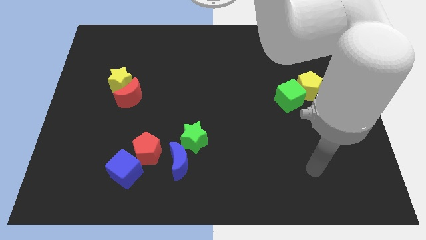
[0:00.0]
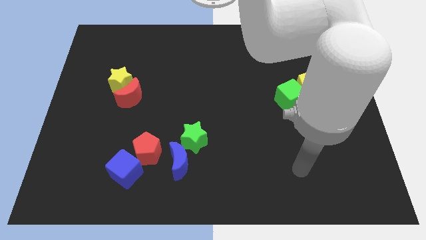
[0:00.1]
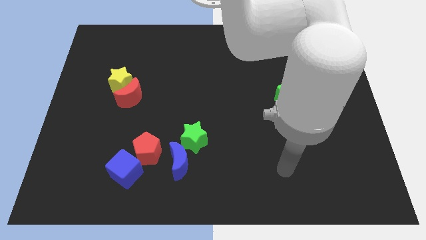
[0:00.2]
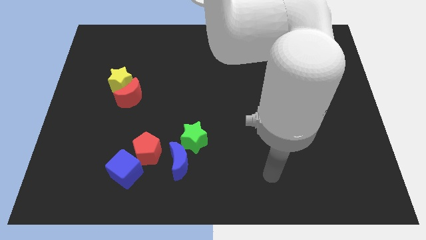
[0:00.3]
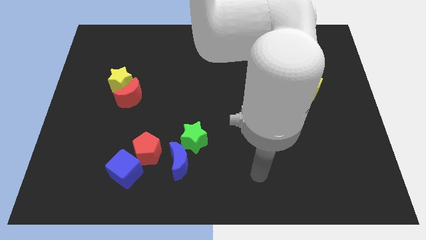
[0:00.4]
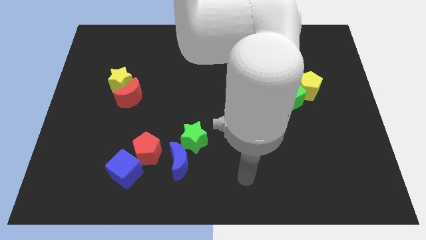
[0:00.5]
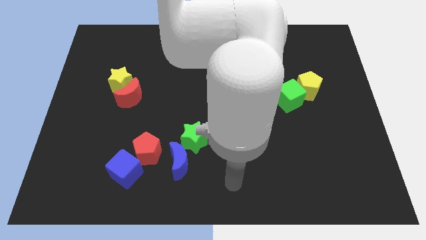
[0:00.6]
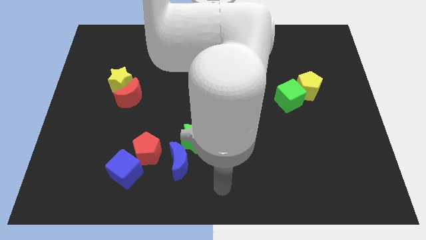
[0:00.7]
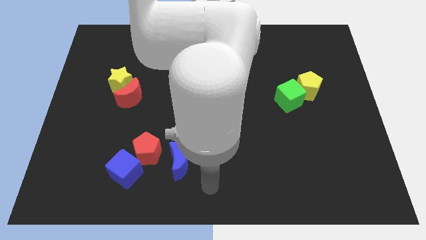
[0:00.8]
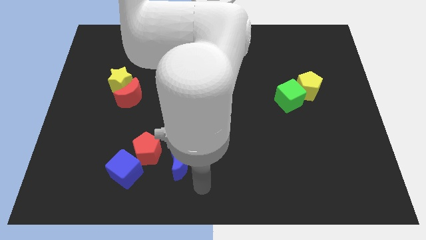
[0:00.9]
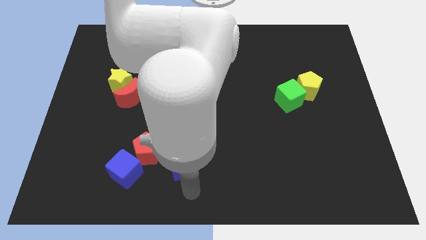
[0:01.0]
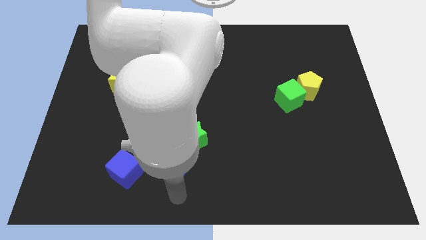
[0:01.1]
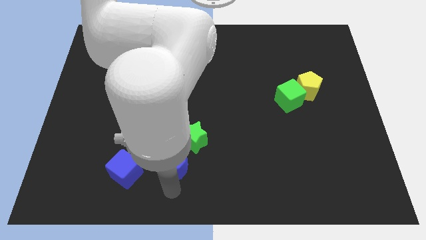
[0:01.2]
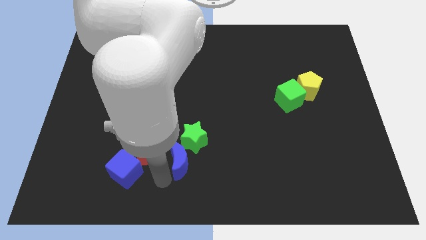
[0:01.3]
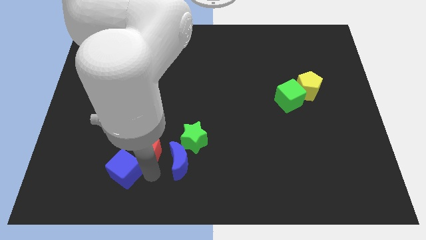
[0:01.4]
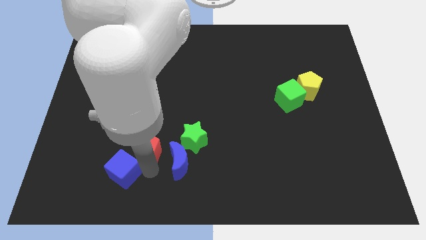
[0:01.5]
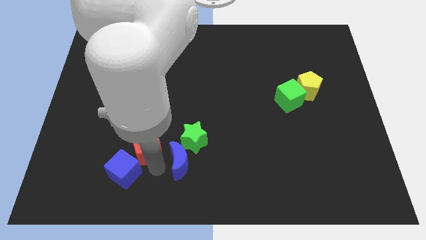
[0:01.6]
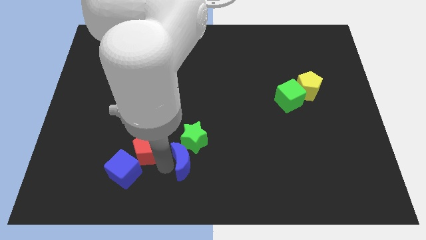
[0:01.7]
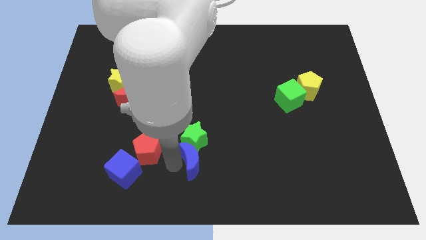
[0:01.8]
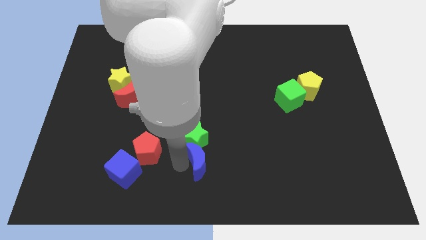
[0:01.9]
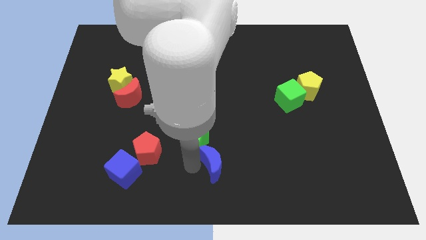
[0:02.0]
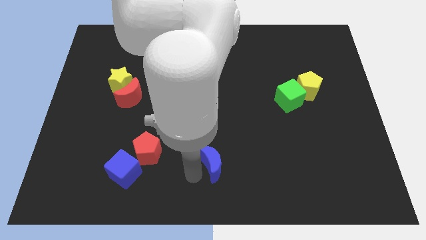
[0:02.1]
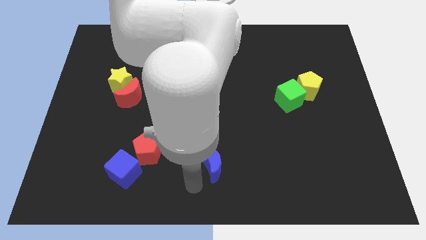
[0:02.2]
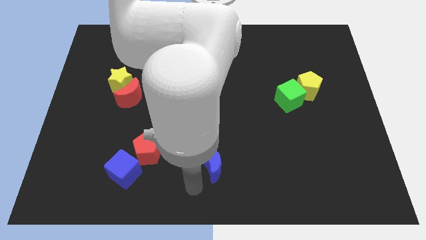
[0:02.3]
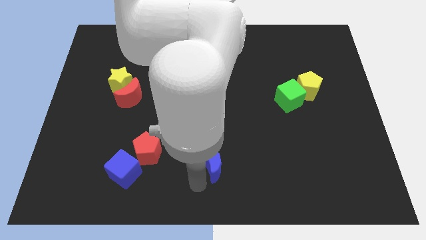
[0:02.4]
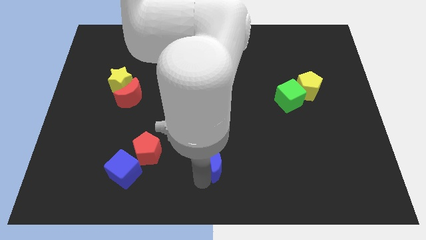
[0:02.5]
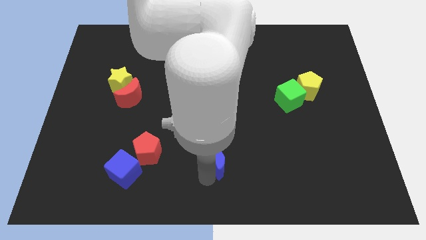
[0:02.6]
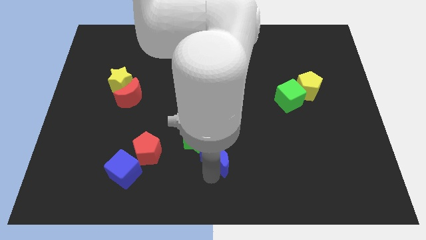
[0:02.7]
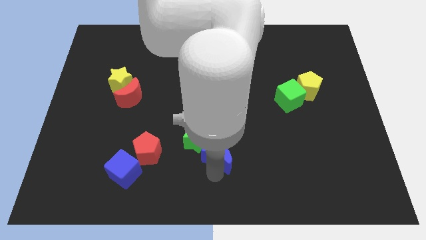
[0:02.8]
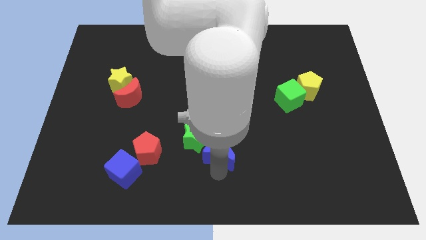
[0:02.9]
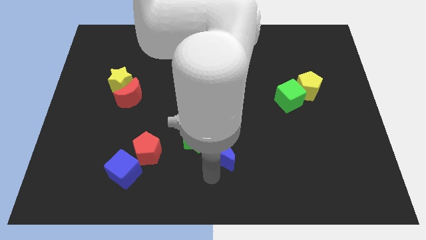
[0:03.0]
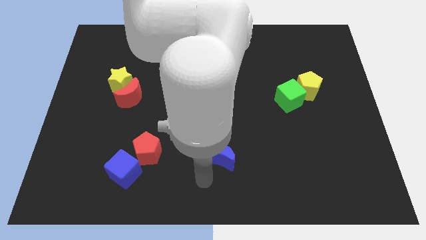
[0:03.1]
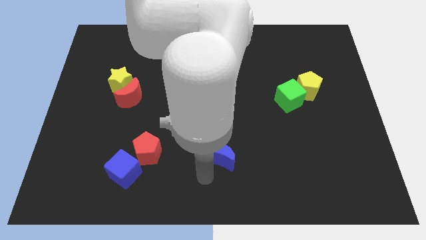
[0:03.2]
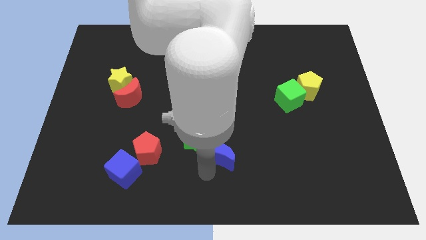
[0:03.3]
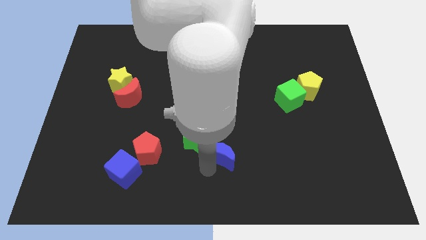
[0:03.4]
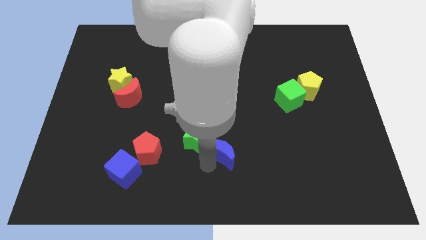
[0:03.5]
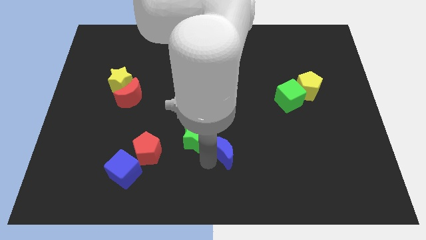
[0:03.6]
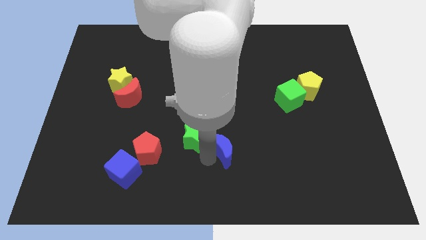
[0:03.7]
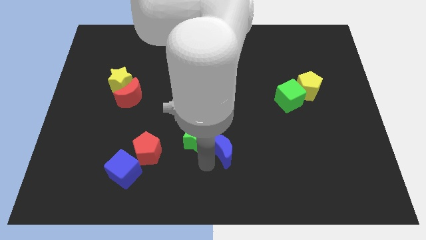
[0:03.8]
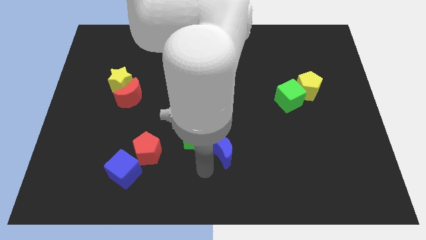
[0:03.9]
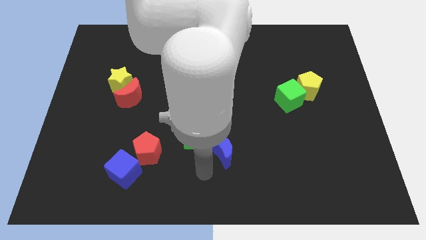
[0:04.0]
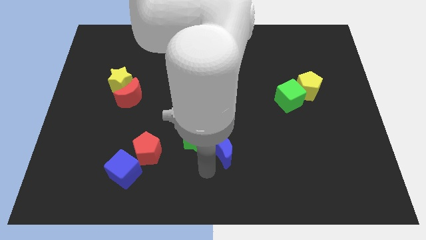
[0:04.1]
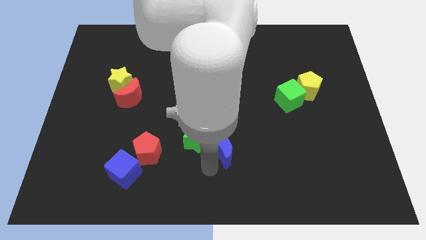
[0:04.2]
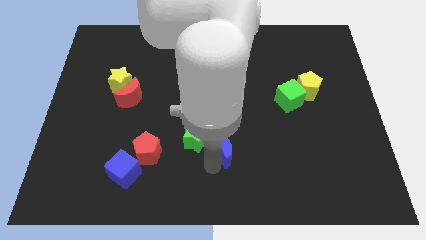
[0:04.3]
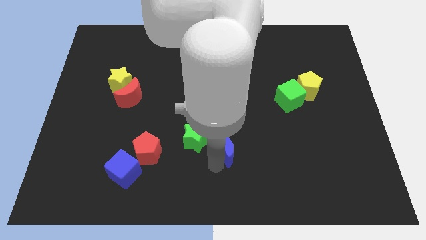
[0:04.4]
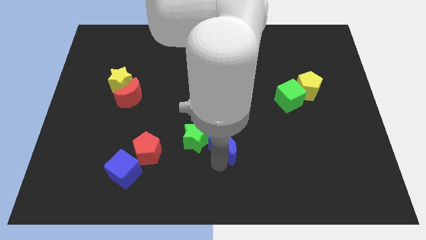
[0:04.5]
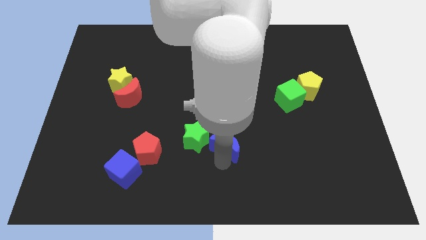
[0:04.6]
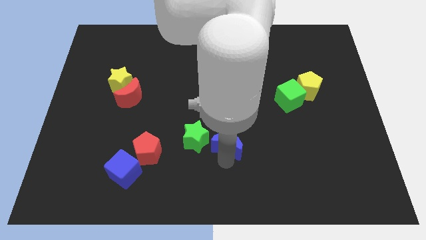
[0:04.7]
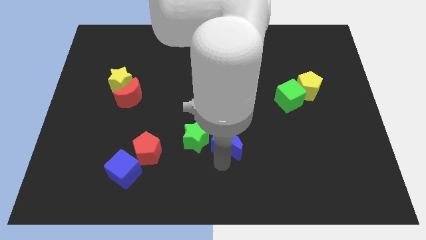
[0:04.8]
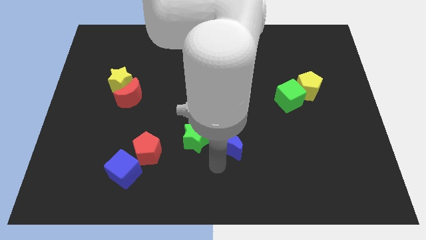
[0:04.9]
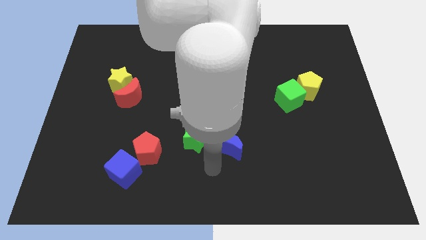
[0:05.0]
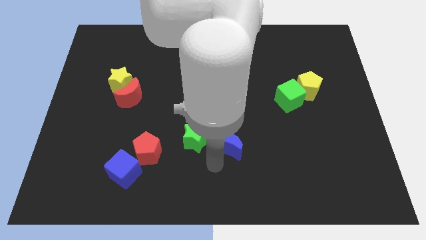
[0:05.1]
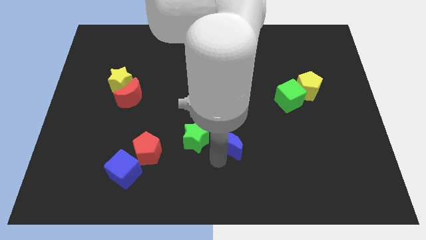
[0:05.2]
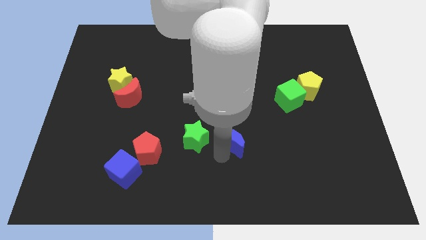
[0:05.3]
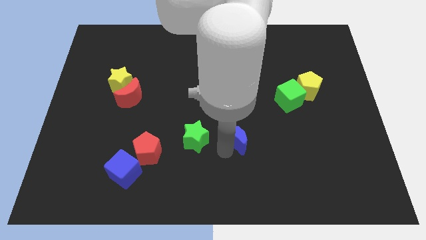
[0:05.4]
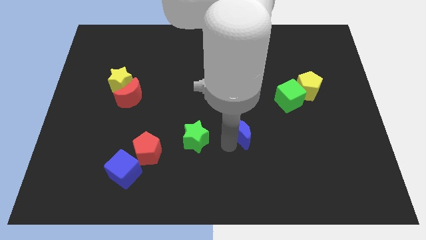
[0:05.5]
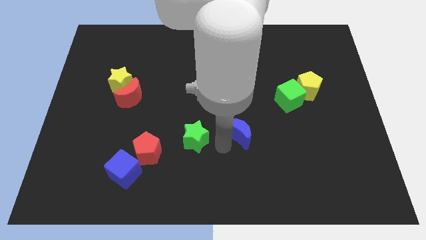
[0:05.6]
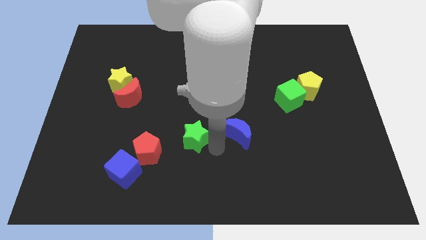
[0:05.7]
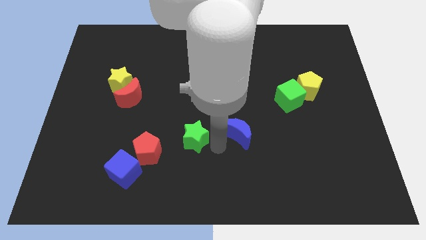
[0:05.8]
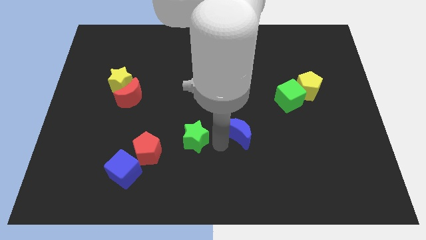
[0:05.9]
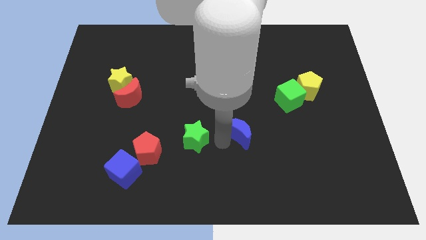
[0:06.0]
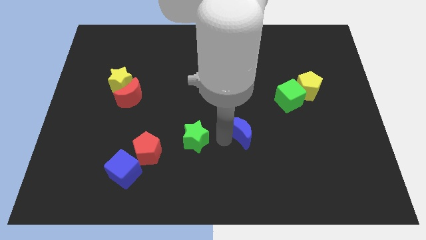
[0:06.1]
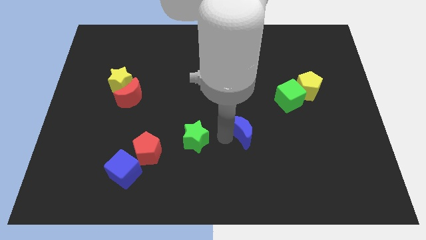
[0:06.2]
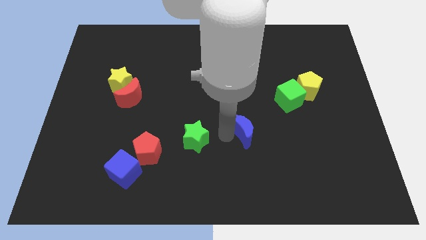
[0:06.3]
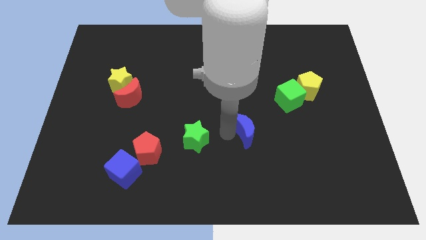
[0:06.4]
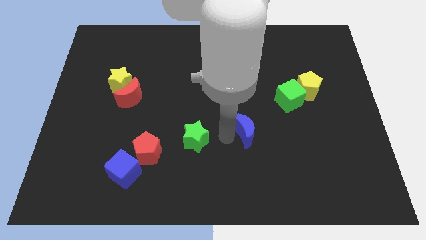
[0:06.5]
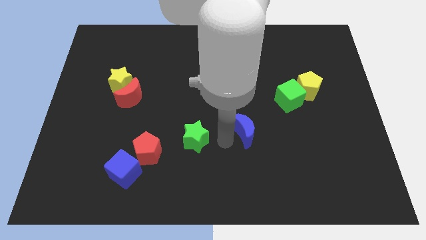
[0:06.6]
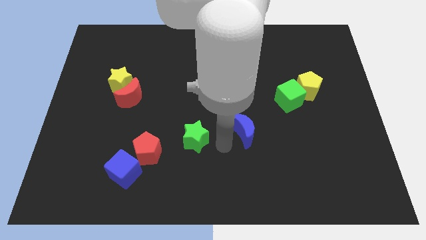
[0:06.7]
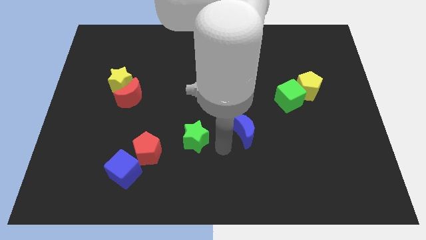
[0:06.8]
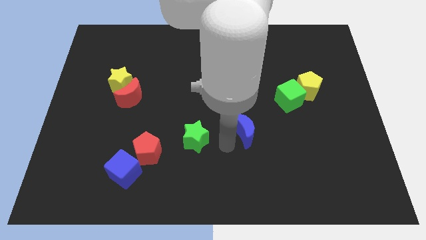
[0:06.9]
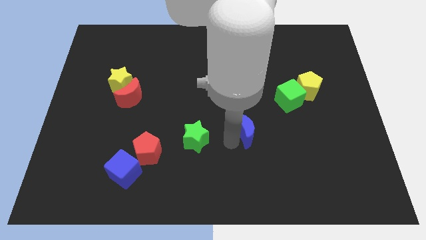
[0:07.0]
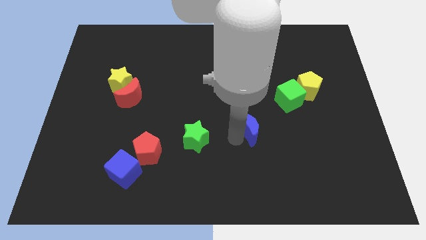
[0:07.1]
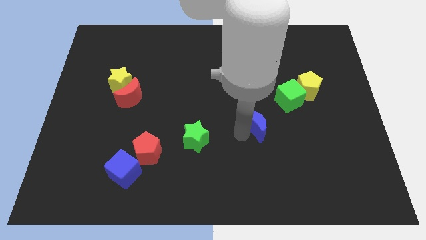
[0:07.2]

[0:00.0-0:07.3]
slide the blue moon diagonally down and to the left of the green cube
